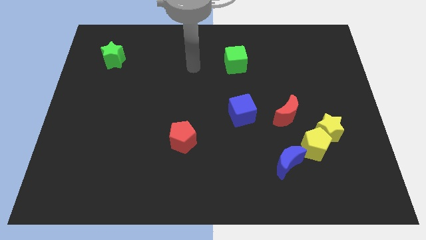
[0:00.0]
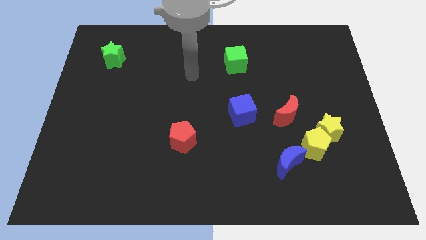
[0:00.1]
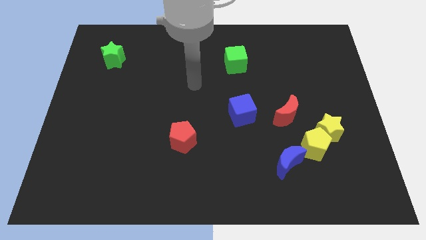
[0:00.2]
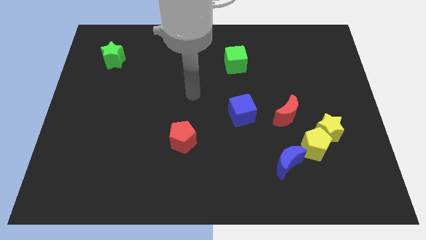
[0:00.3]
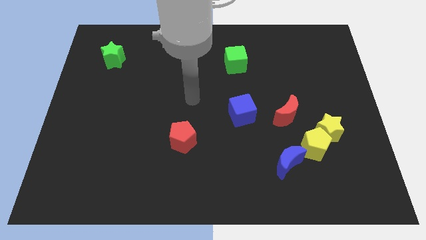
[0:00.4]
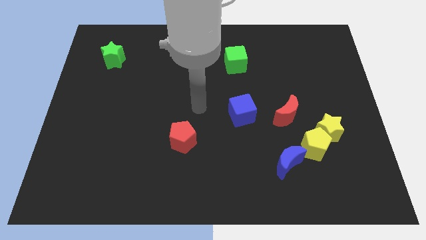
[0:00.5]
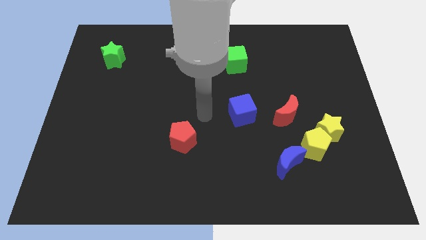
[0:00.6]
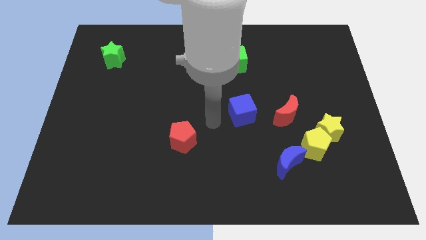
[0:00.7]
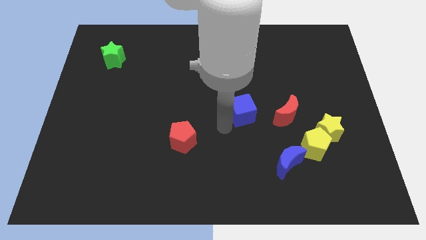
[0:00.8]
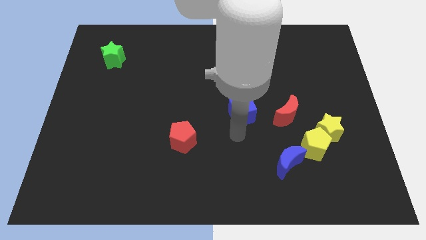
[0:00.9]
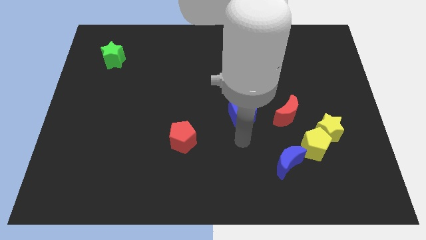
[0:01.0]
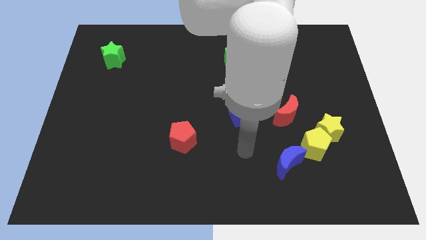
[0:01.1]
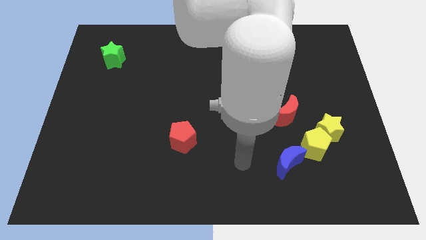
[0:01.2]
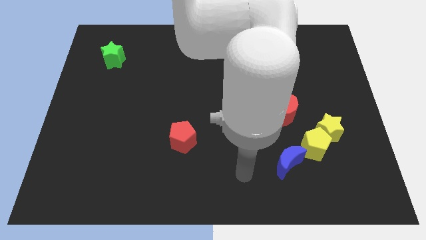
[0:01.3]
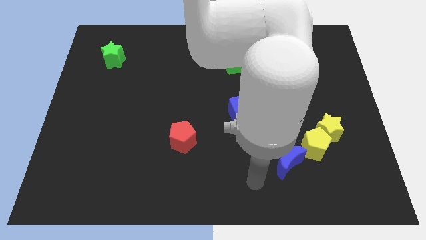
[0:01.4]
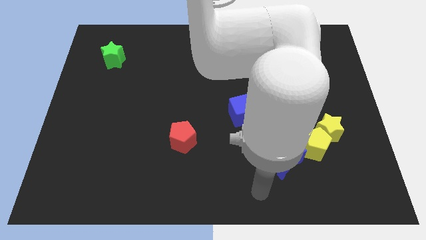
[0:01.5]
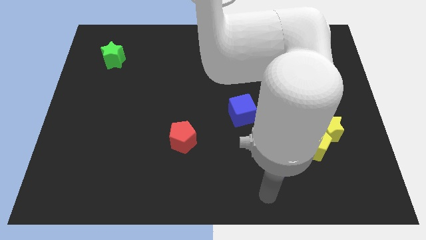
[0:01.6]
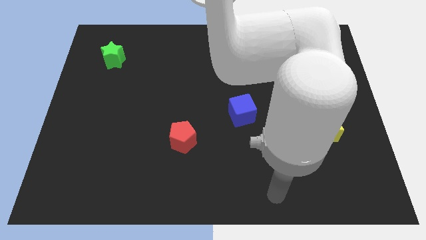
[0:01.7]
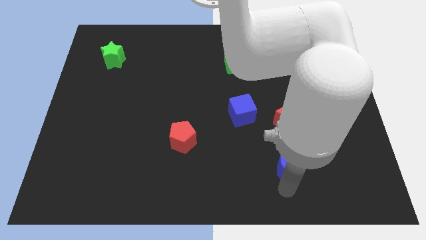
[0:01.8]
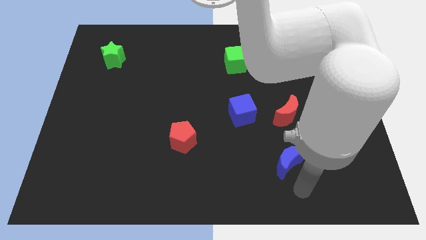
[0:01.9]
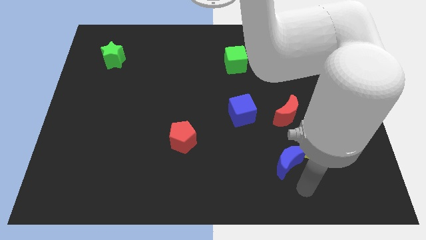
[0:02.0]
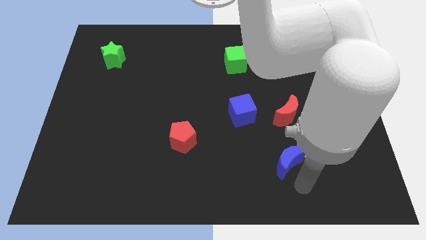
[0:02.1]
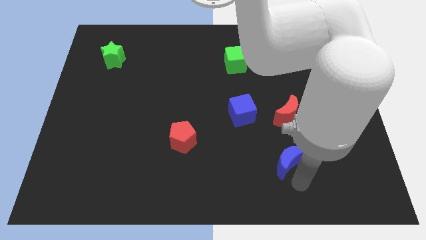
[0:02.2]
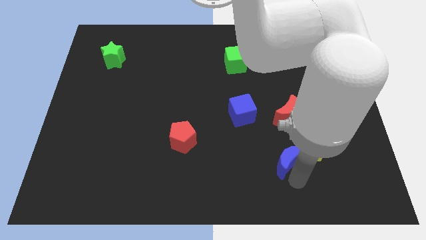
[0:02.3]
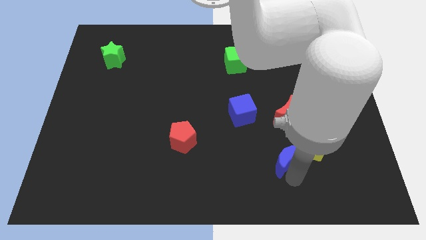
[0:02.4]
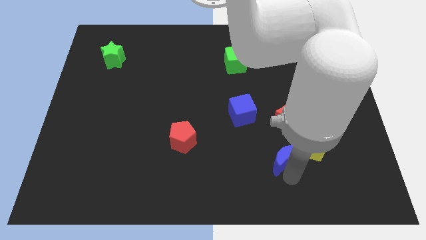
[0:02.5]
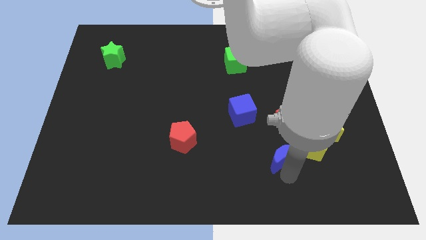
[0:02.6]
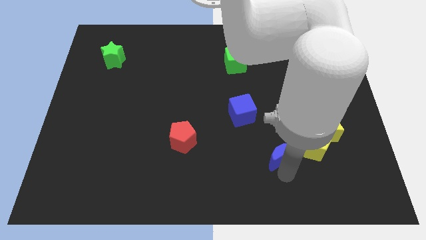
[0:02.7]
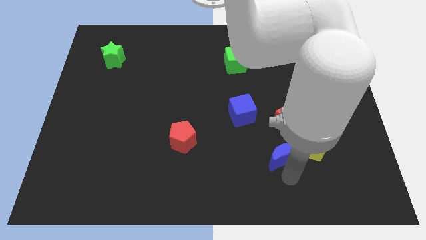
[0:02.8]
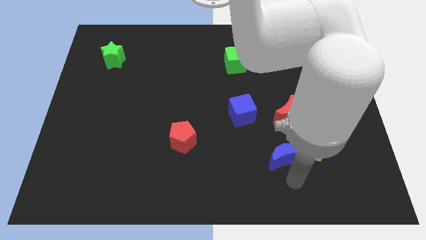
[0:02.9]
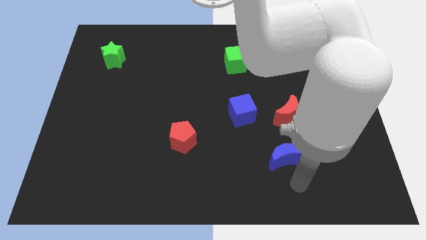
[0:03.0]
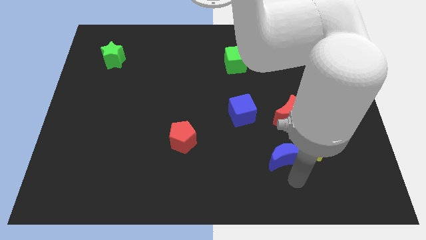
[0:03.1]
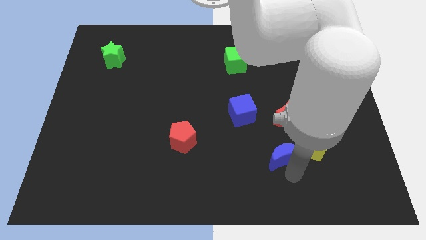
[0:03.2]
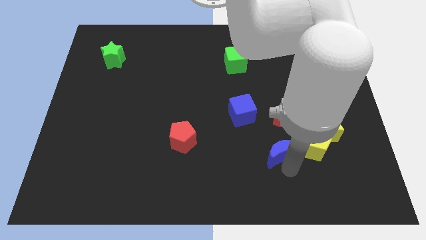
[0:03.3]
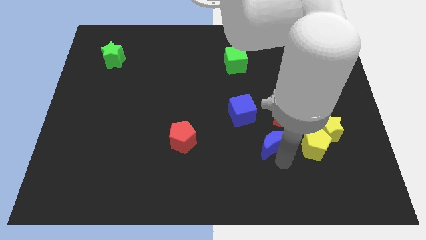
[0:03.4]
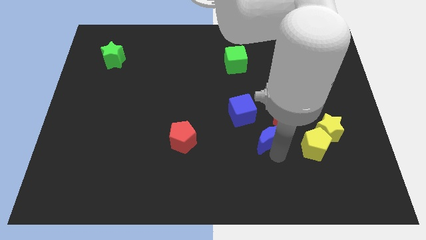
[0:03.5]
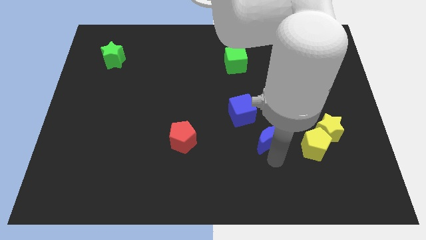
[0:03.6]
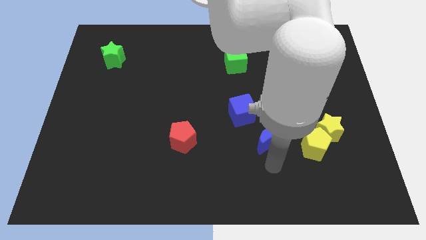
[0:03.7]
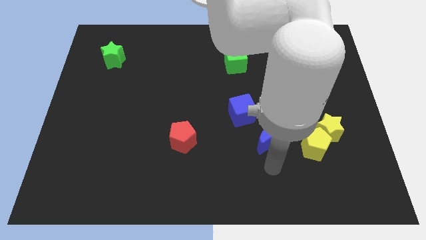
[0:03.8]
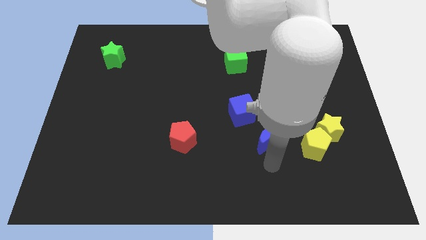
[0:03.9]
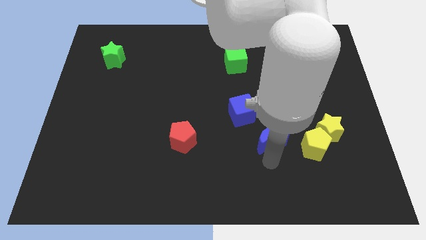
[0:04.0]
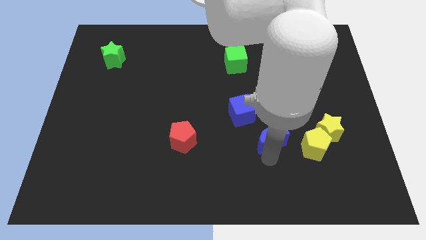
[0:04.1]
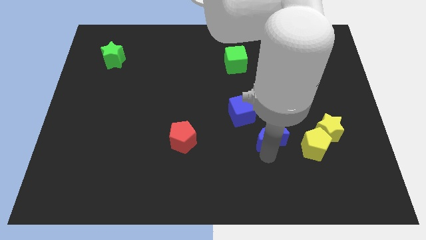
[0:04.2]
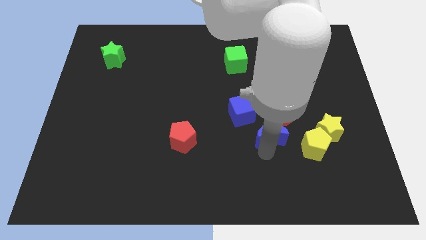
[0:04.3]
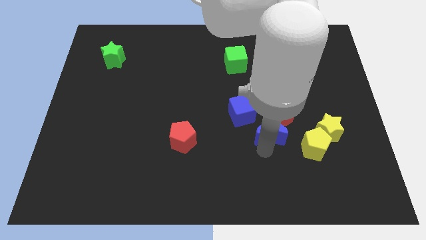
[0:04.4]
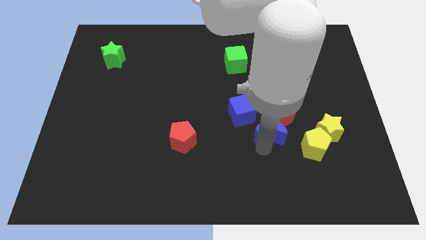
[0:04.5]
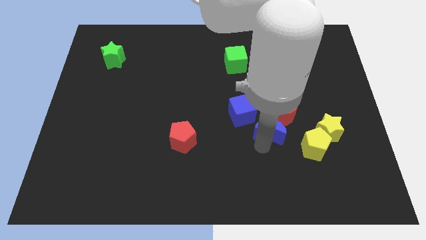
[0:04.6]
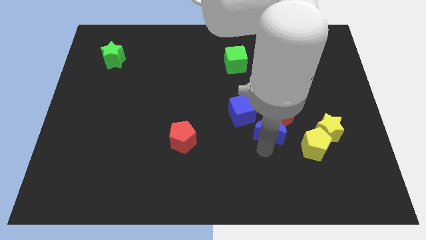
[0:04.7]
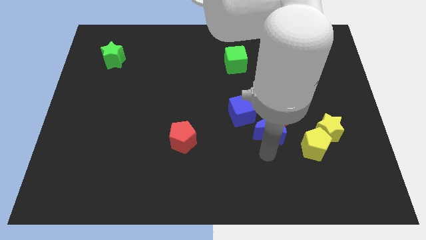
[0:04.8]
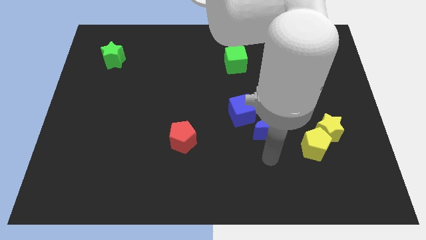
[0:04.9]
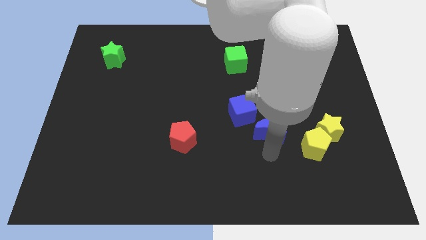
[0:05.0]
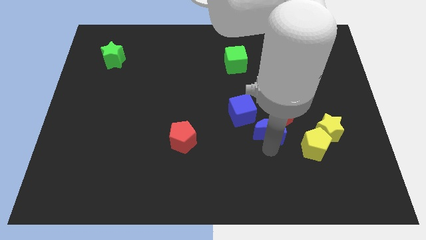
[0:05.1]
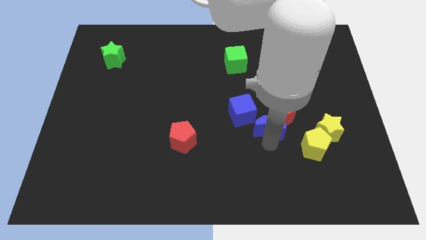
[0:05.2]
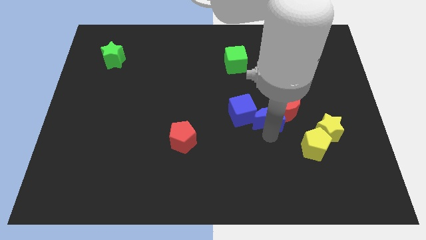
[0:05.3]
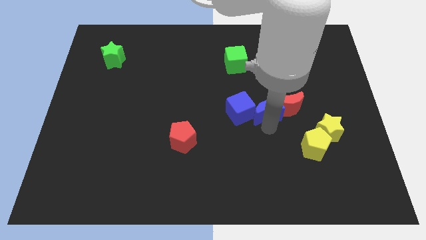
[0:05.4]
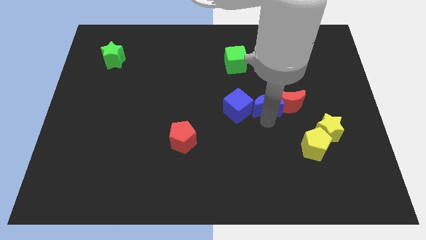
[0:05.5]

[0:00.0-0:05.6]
put the blue moon to the top left side of the red moon

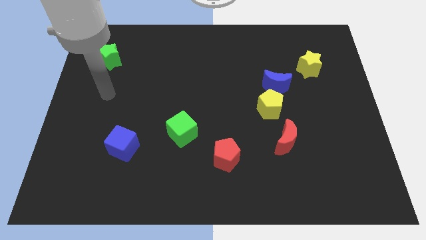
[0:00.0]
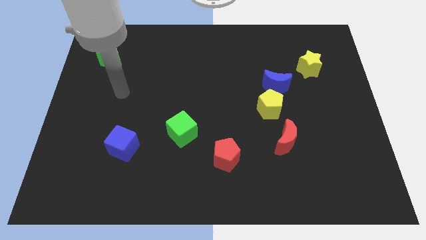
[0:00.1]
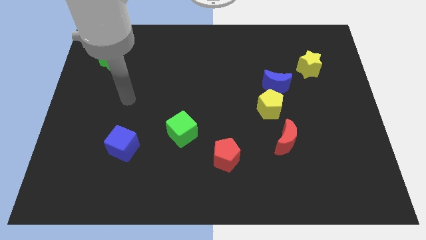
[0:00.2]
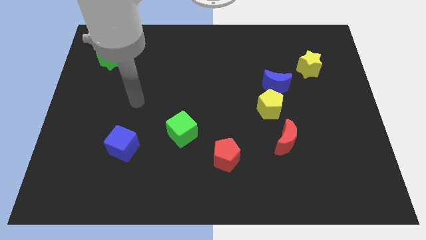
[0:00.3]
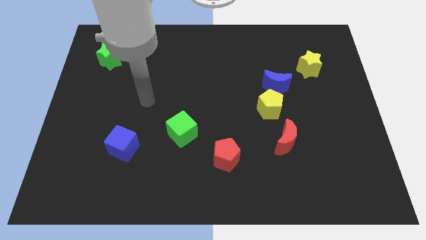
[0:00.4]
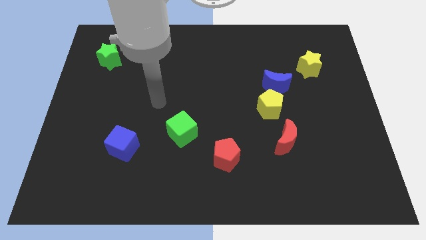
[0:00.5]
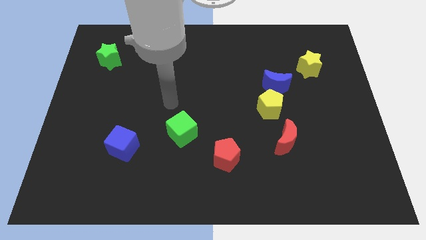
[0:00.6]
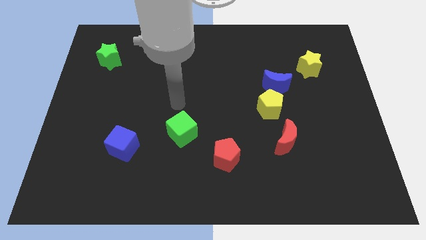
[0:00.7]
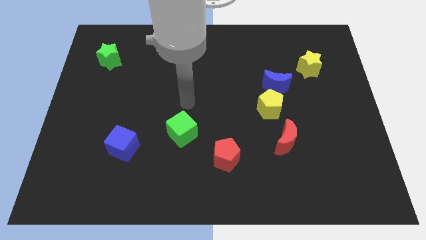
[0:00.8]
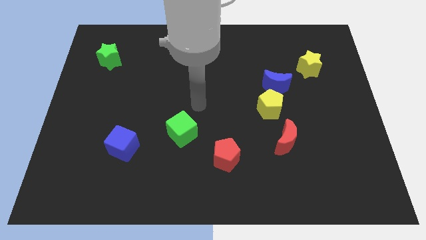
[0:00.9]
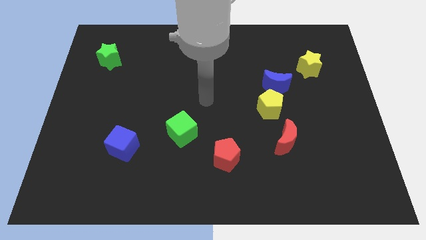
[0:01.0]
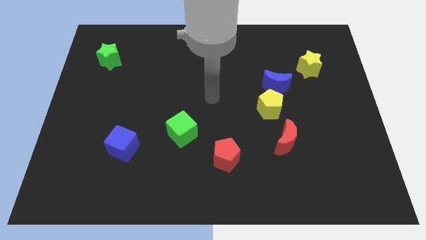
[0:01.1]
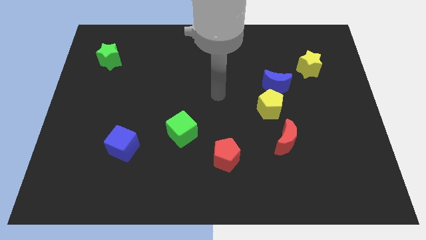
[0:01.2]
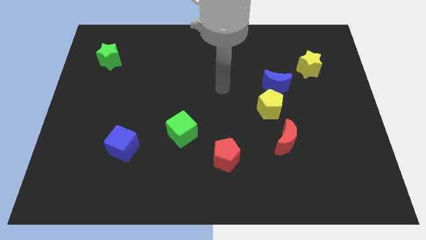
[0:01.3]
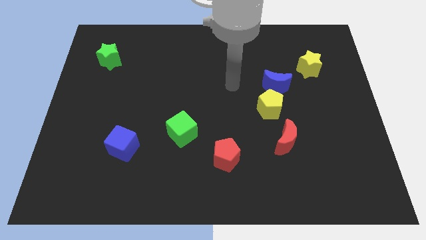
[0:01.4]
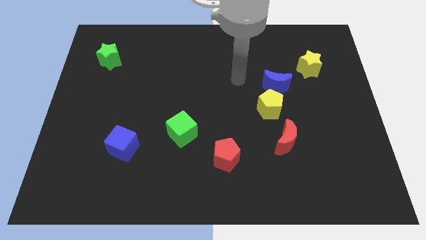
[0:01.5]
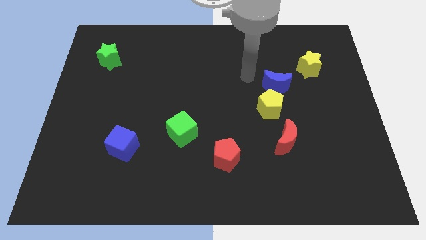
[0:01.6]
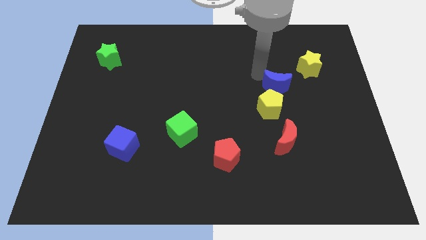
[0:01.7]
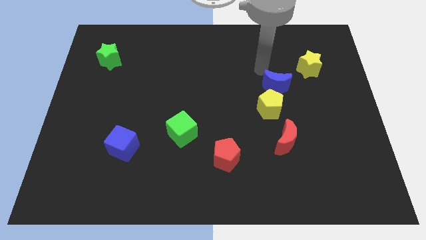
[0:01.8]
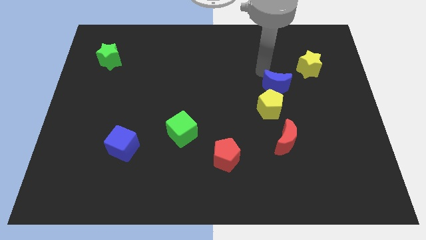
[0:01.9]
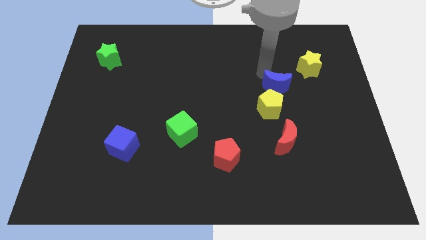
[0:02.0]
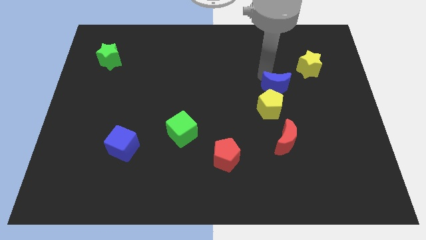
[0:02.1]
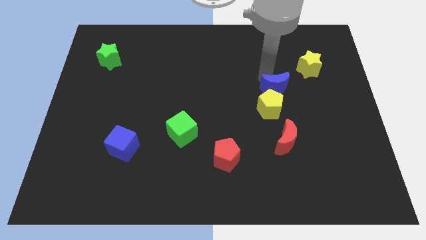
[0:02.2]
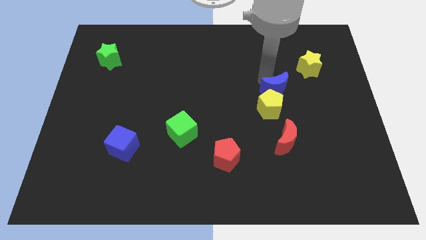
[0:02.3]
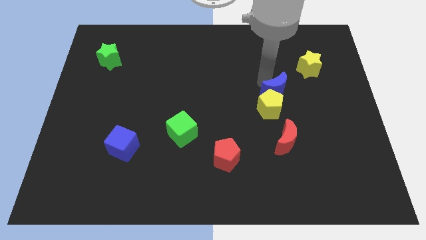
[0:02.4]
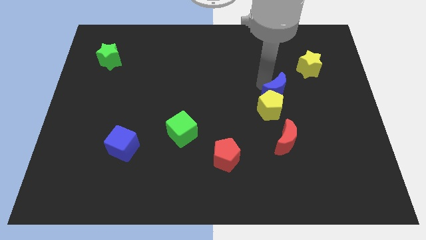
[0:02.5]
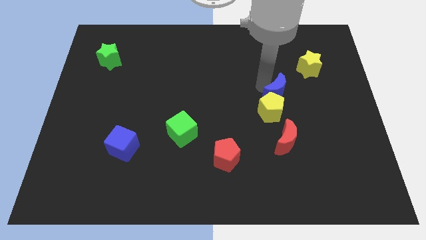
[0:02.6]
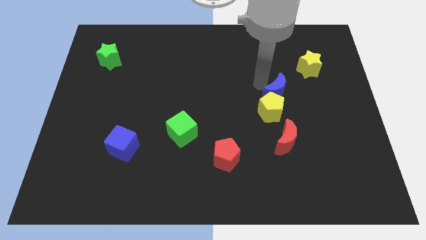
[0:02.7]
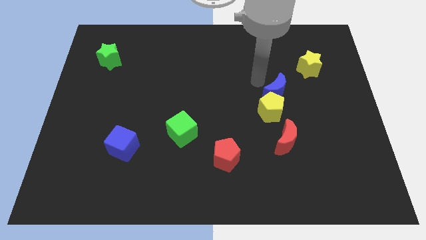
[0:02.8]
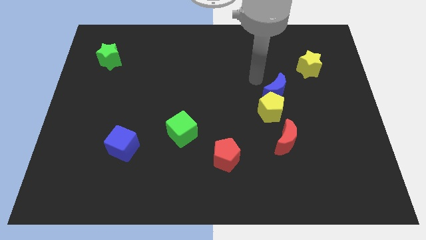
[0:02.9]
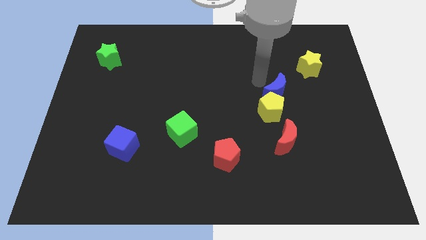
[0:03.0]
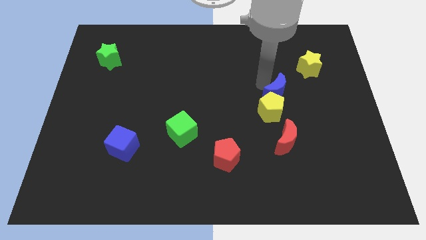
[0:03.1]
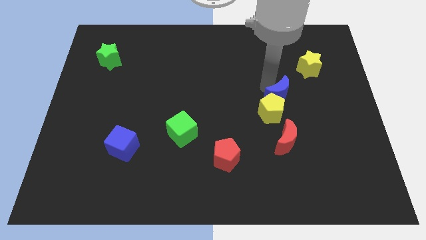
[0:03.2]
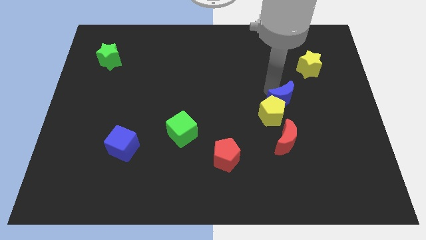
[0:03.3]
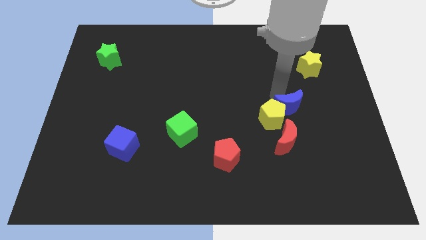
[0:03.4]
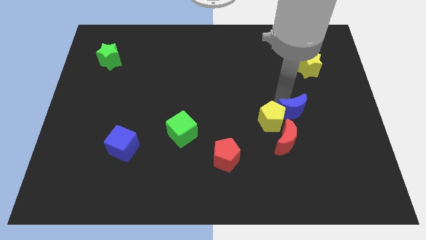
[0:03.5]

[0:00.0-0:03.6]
push the blue moon diagonally up and to the right of the red moon
